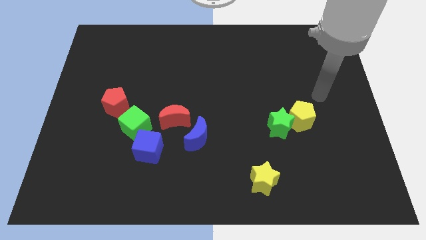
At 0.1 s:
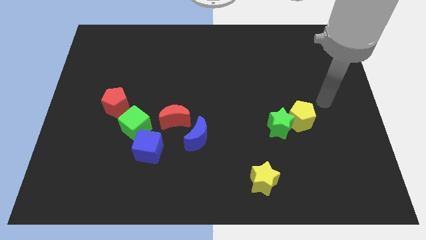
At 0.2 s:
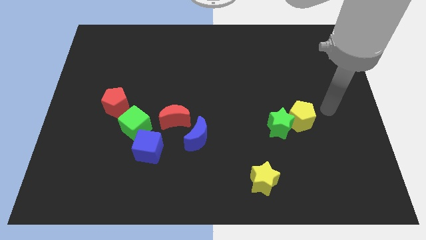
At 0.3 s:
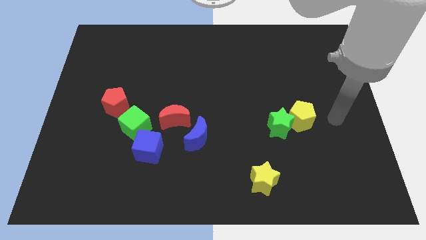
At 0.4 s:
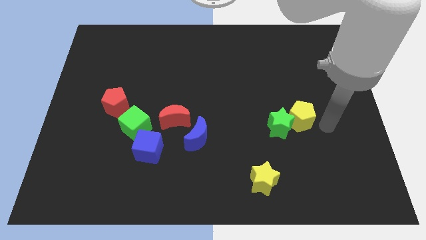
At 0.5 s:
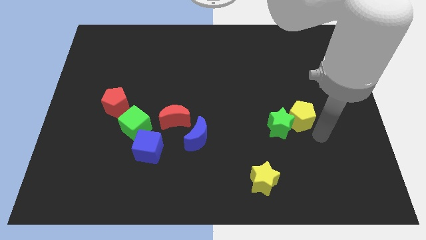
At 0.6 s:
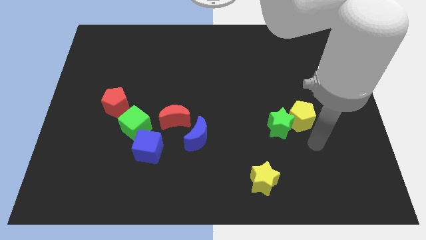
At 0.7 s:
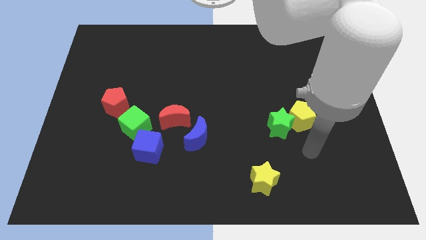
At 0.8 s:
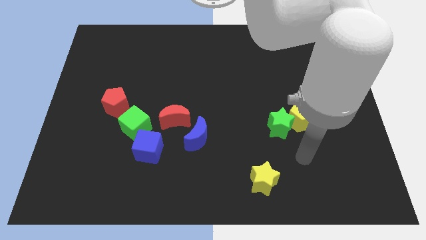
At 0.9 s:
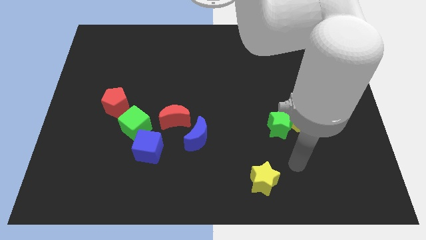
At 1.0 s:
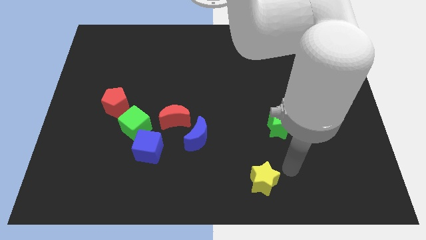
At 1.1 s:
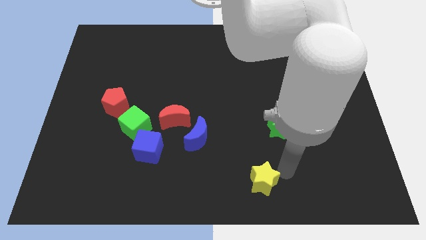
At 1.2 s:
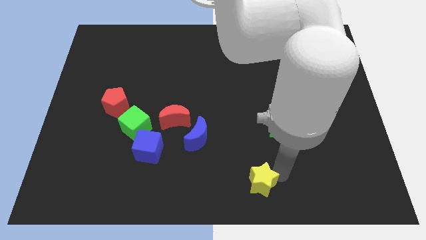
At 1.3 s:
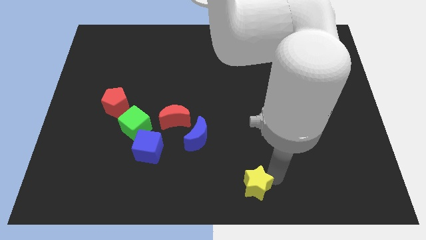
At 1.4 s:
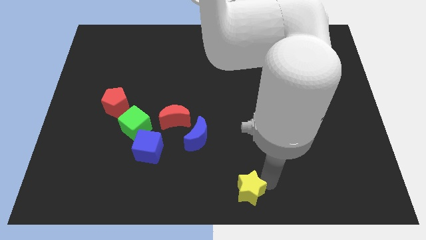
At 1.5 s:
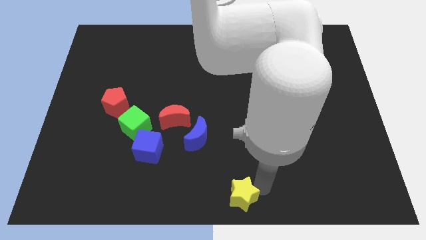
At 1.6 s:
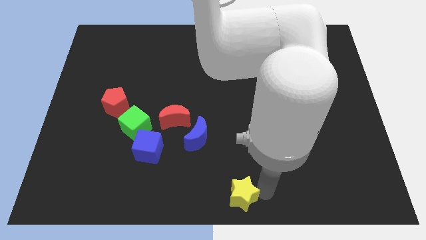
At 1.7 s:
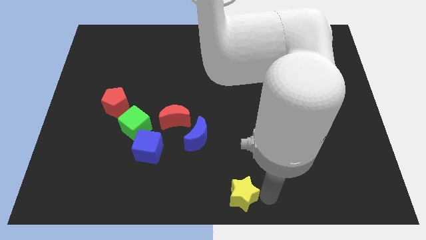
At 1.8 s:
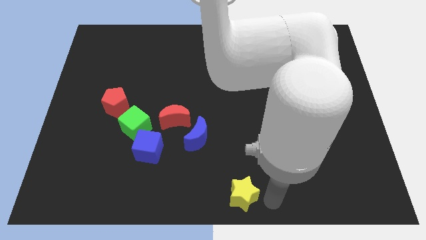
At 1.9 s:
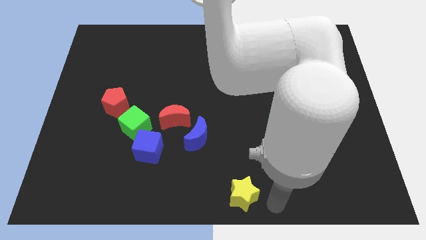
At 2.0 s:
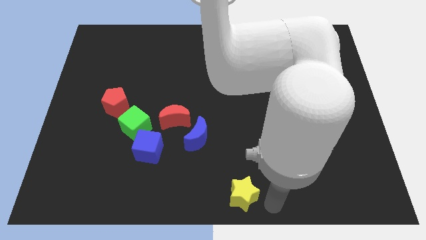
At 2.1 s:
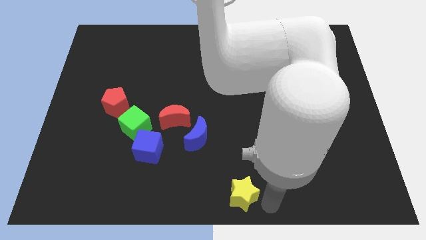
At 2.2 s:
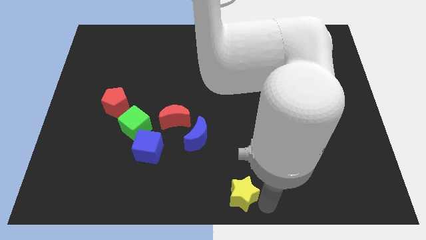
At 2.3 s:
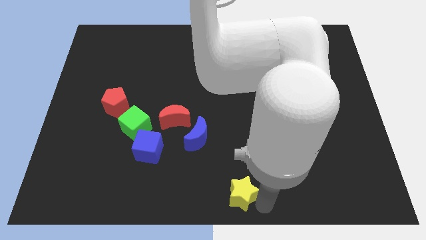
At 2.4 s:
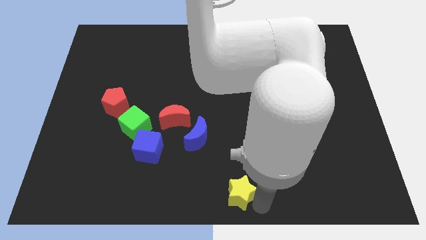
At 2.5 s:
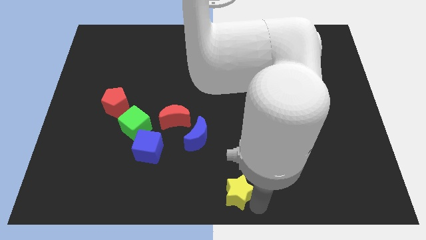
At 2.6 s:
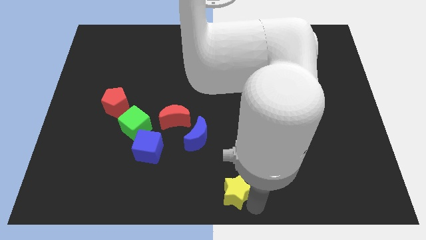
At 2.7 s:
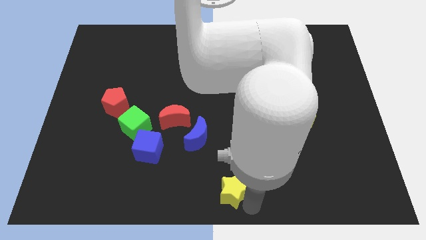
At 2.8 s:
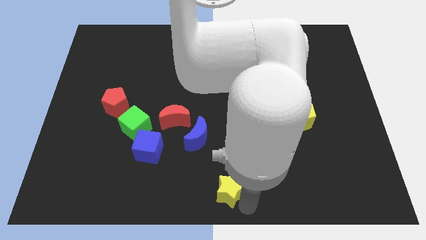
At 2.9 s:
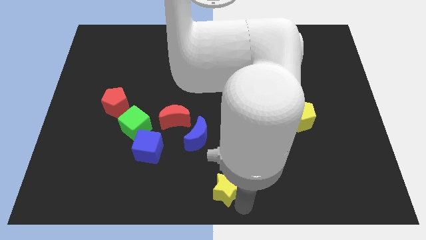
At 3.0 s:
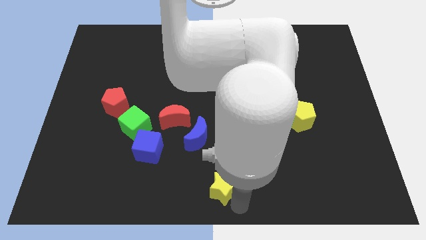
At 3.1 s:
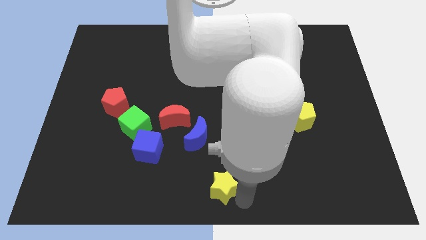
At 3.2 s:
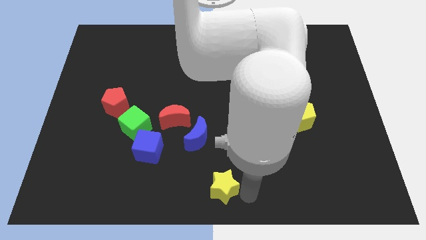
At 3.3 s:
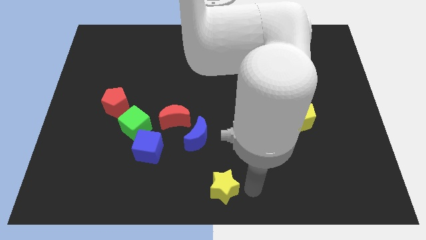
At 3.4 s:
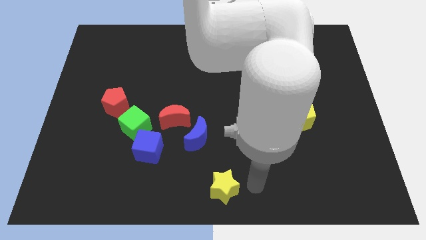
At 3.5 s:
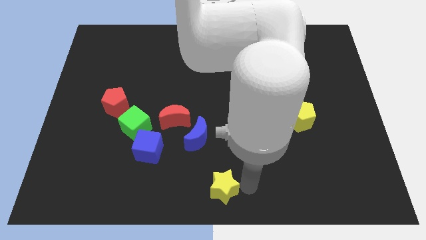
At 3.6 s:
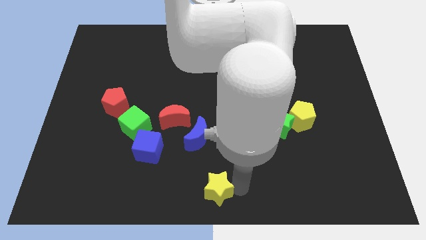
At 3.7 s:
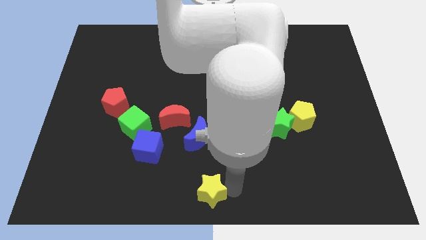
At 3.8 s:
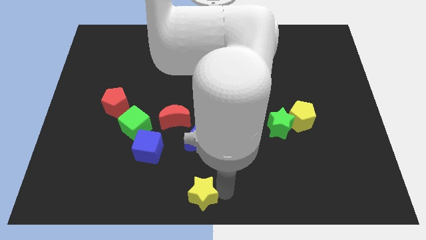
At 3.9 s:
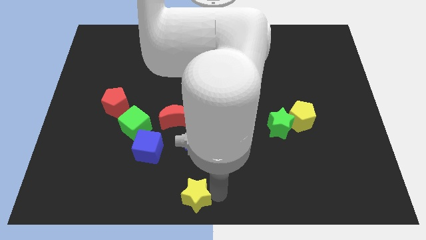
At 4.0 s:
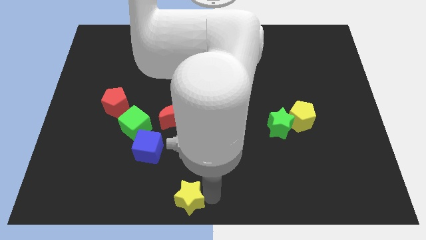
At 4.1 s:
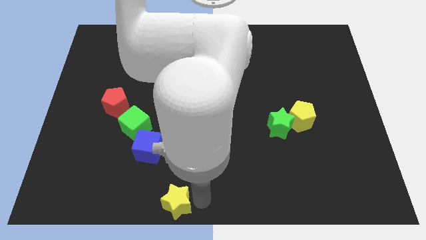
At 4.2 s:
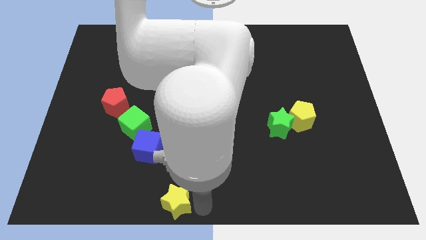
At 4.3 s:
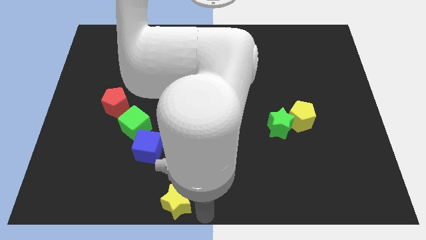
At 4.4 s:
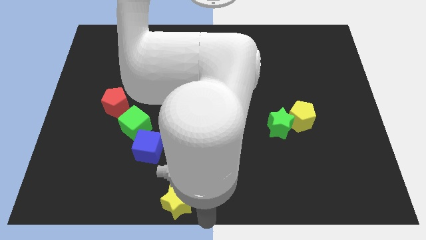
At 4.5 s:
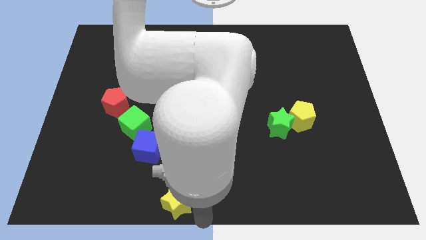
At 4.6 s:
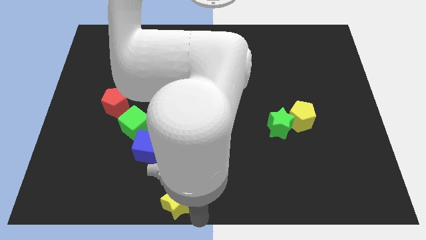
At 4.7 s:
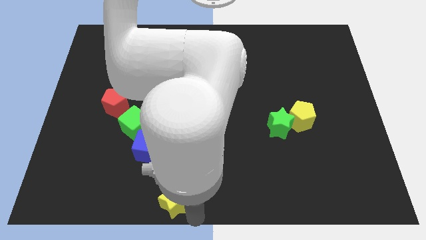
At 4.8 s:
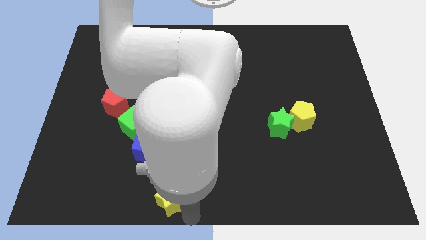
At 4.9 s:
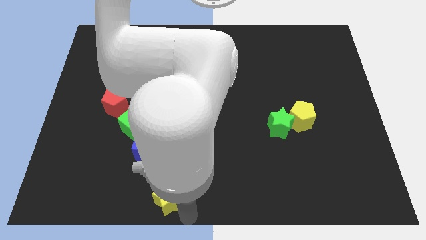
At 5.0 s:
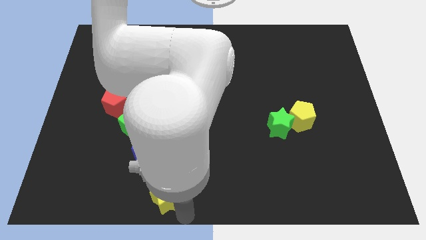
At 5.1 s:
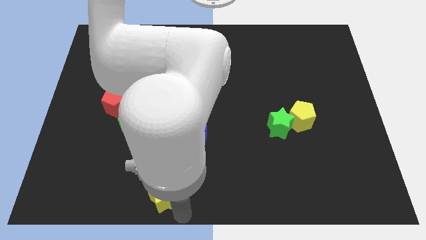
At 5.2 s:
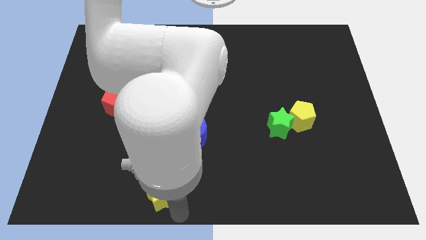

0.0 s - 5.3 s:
move the yellow star left

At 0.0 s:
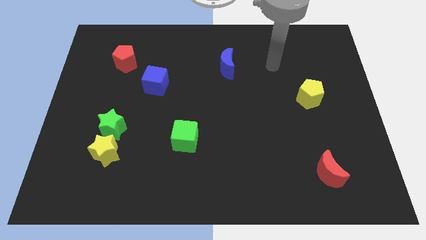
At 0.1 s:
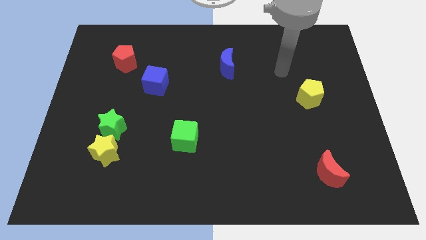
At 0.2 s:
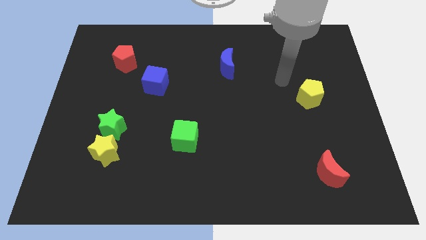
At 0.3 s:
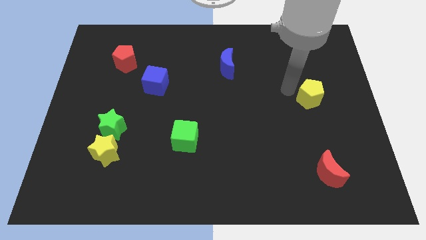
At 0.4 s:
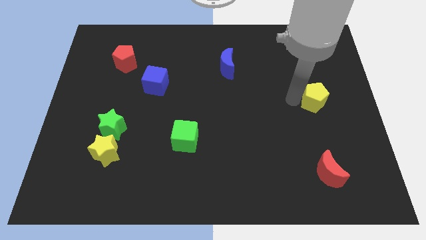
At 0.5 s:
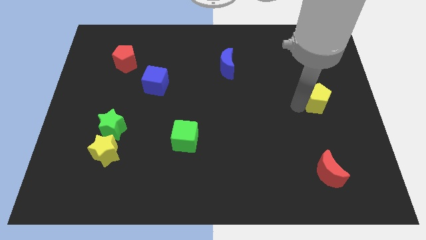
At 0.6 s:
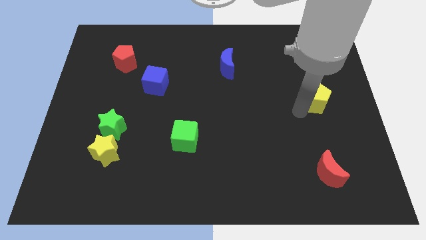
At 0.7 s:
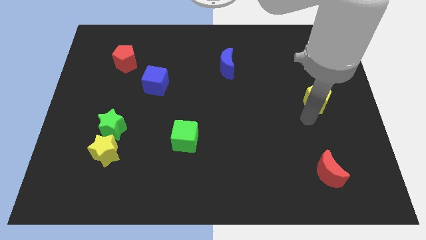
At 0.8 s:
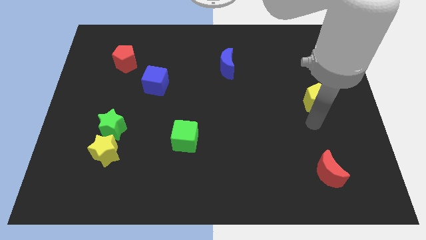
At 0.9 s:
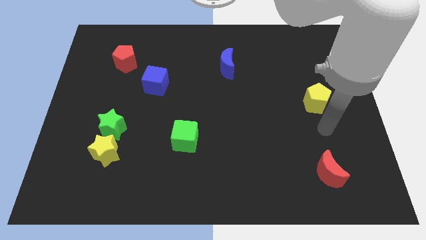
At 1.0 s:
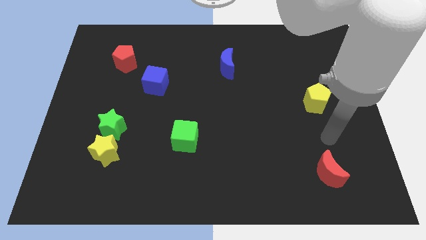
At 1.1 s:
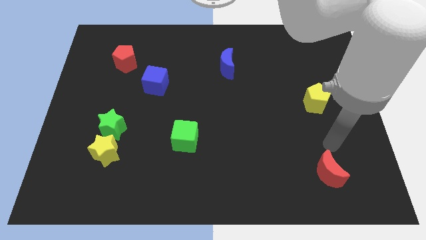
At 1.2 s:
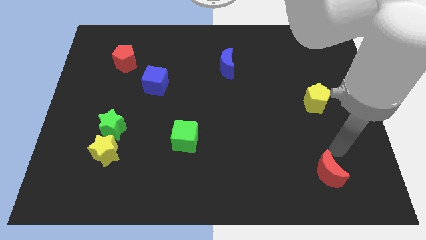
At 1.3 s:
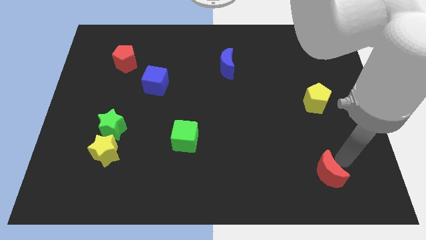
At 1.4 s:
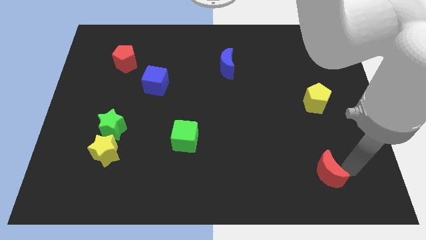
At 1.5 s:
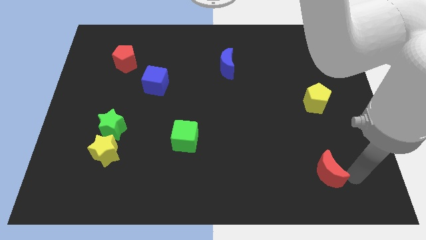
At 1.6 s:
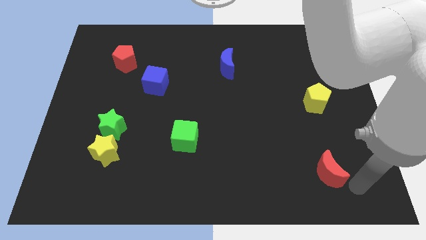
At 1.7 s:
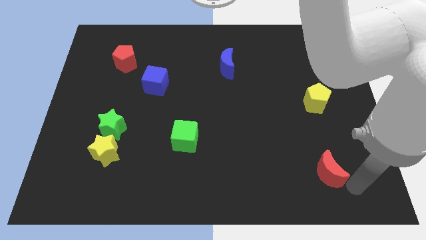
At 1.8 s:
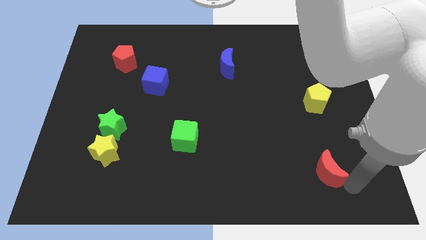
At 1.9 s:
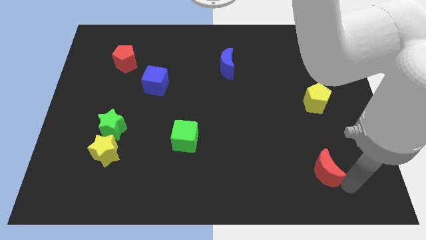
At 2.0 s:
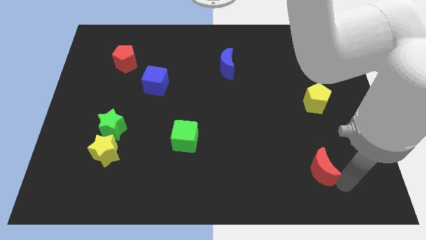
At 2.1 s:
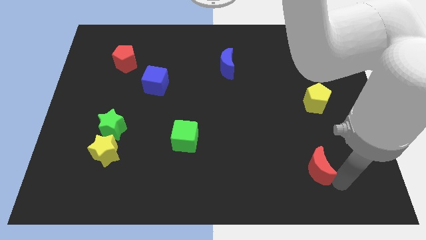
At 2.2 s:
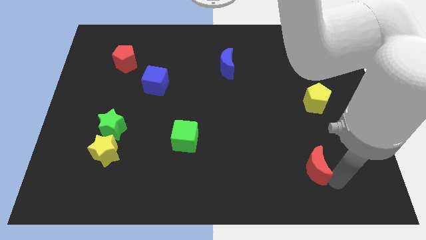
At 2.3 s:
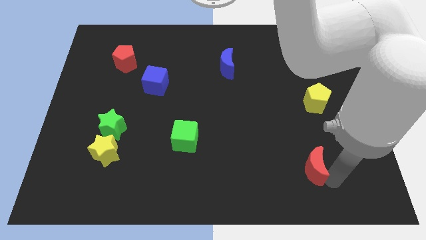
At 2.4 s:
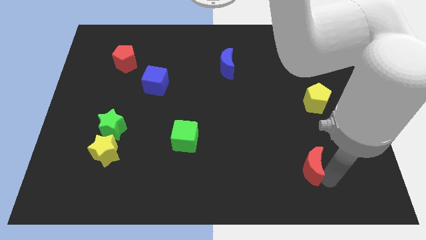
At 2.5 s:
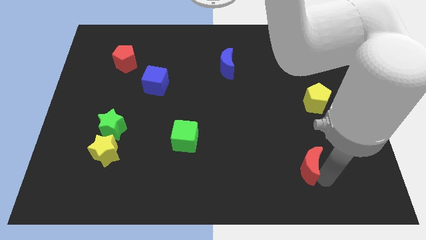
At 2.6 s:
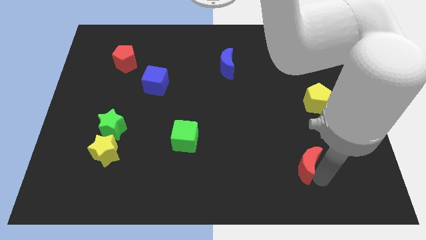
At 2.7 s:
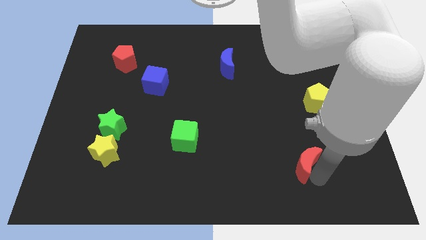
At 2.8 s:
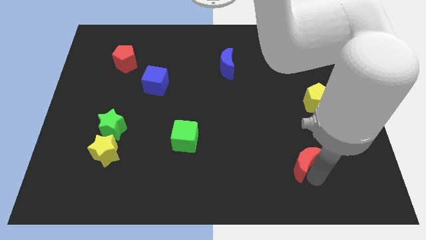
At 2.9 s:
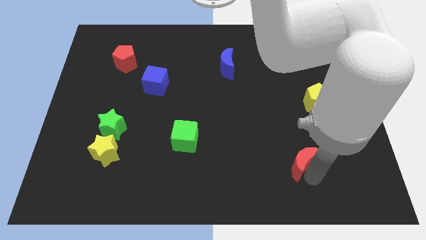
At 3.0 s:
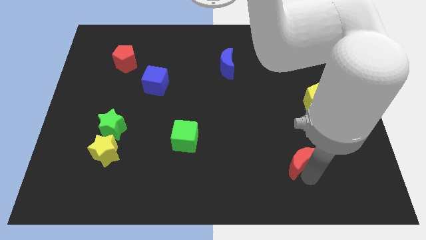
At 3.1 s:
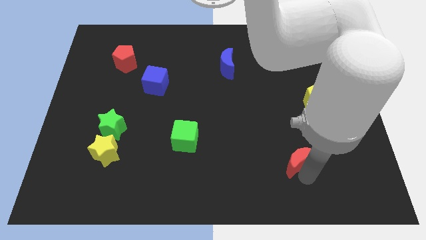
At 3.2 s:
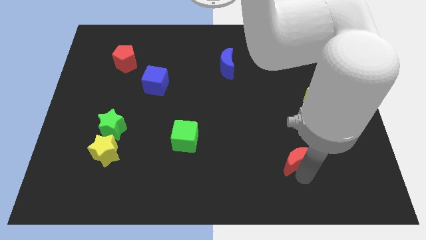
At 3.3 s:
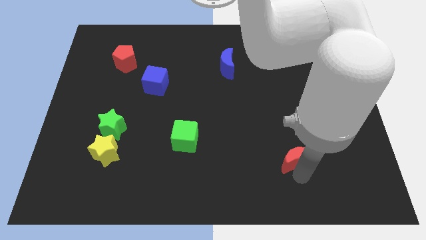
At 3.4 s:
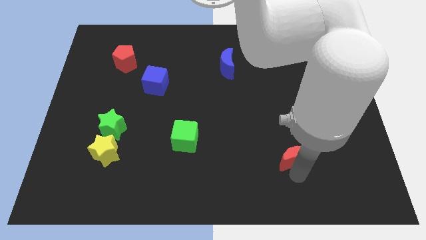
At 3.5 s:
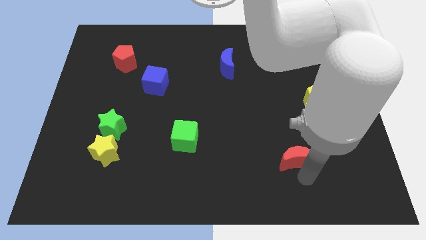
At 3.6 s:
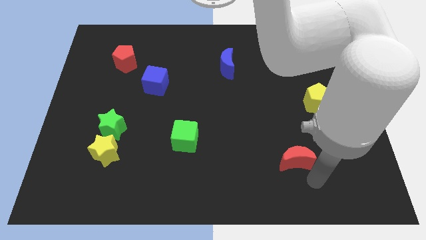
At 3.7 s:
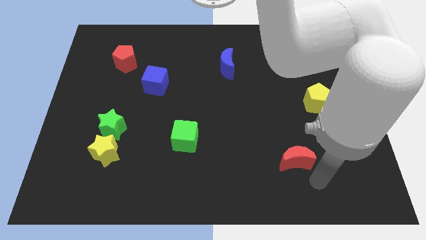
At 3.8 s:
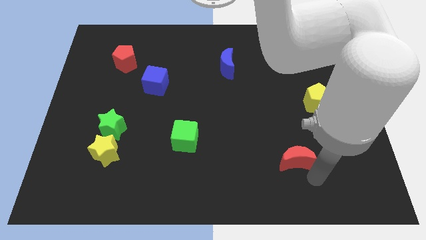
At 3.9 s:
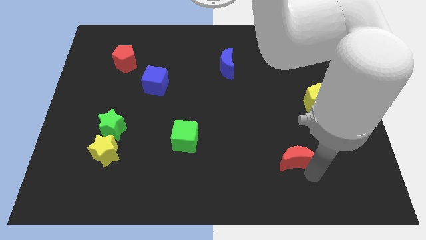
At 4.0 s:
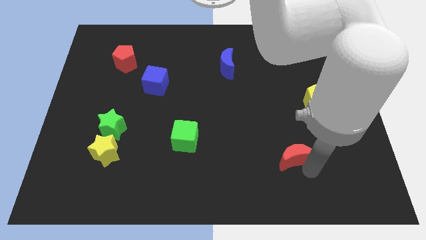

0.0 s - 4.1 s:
slightly push the red moon up and left diagonally
